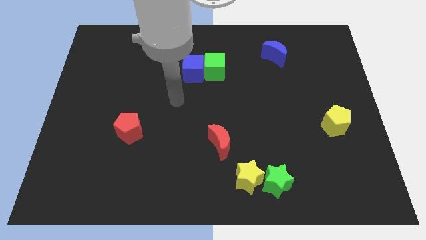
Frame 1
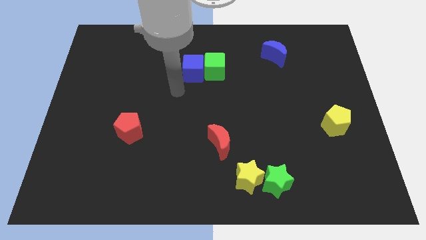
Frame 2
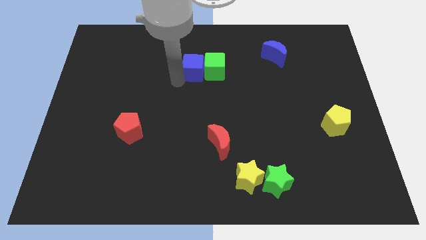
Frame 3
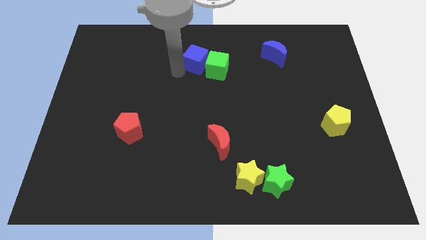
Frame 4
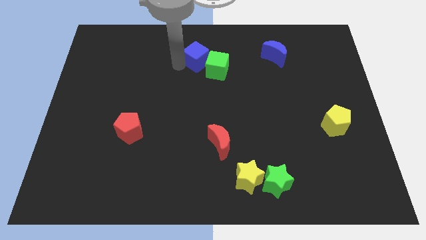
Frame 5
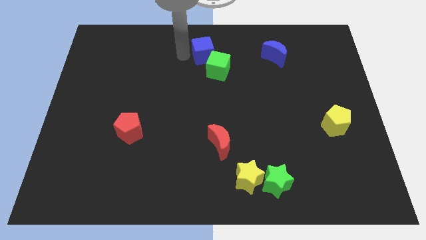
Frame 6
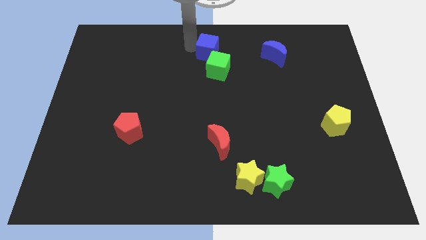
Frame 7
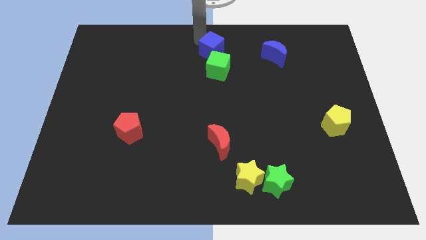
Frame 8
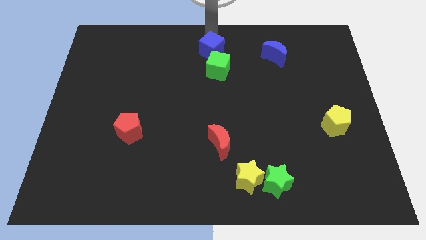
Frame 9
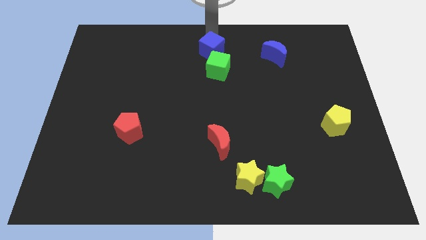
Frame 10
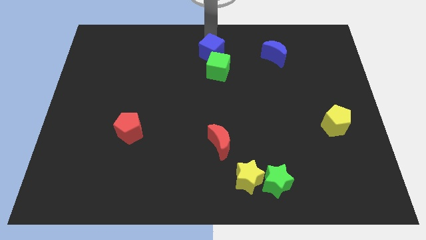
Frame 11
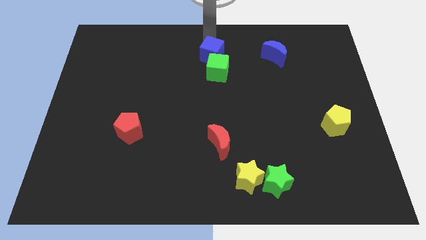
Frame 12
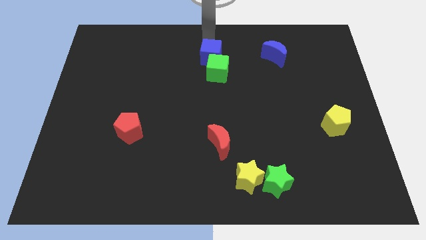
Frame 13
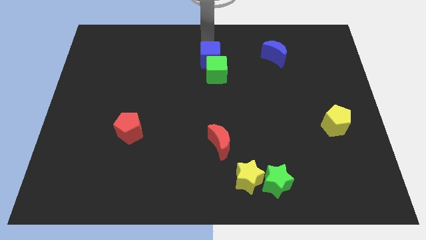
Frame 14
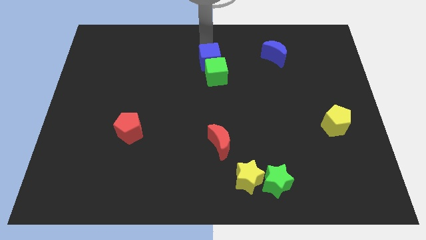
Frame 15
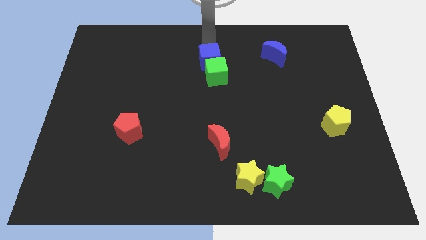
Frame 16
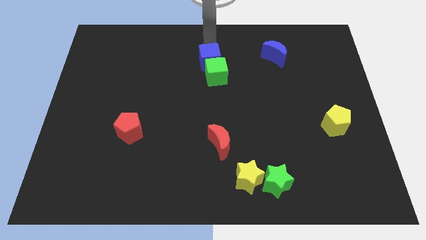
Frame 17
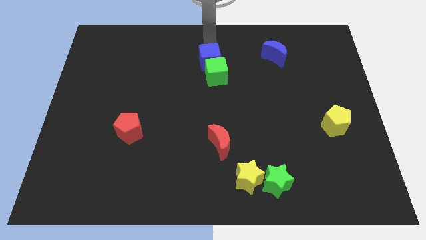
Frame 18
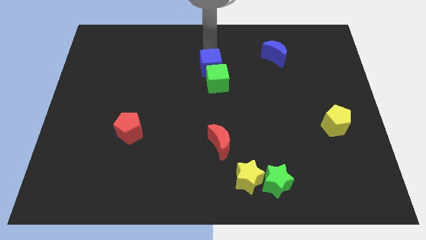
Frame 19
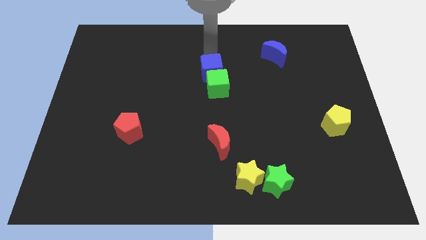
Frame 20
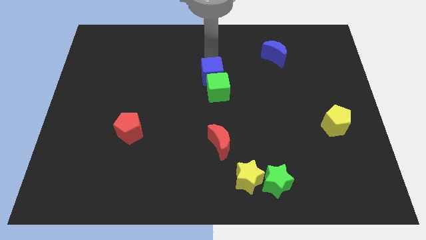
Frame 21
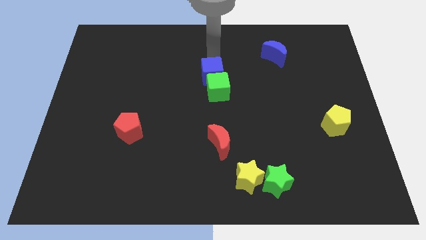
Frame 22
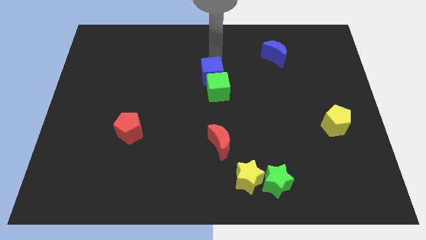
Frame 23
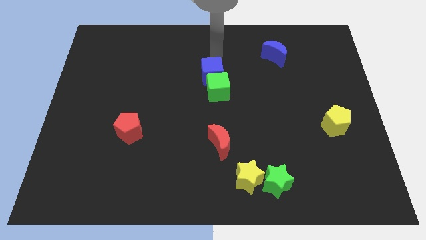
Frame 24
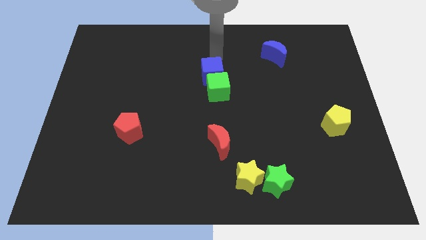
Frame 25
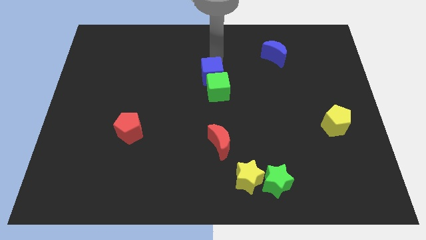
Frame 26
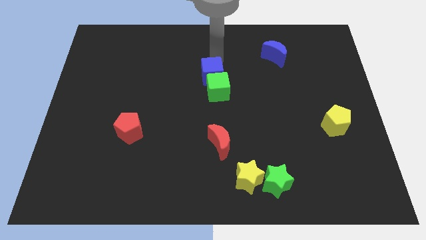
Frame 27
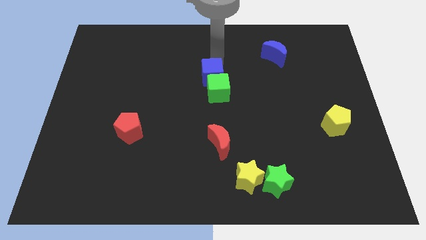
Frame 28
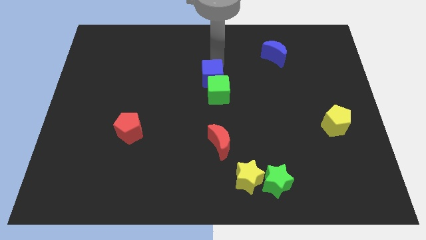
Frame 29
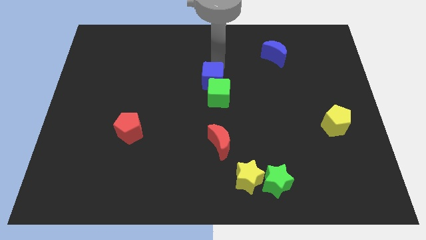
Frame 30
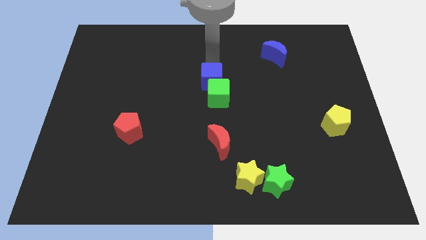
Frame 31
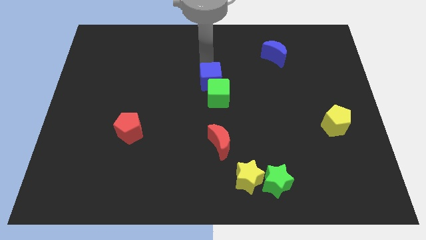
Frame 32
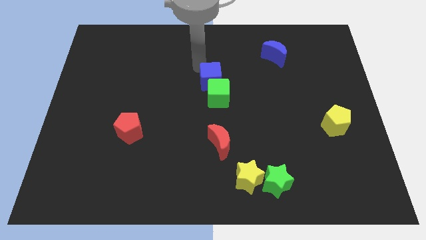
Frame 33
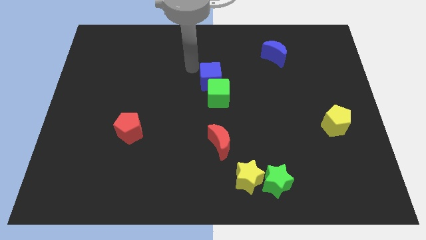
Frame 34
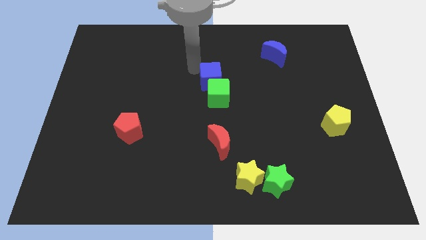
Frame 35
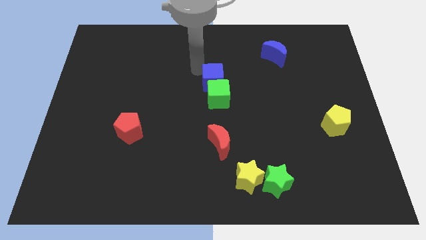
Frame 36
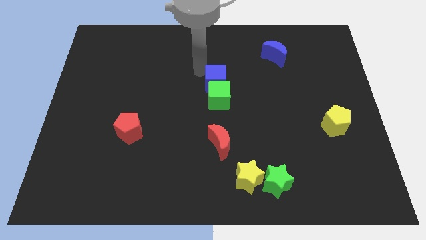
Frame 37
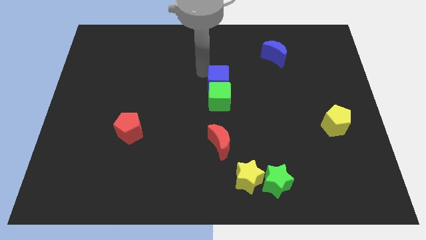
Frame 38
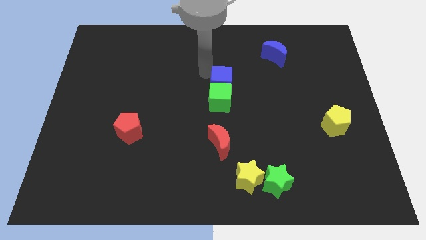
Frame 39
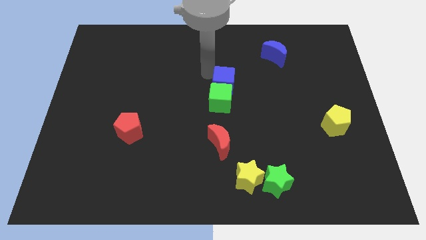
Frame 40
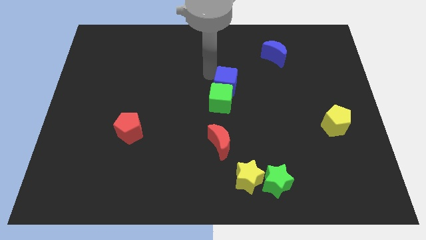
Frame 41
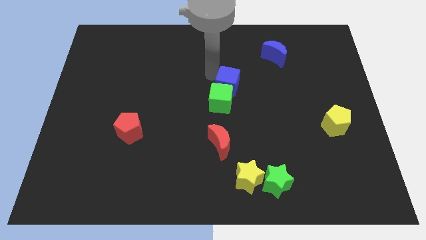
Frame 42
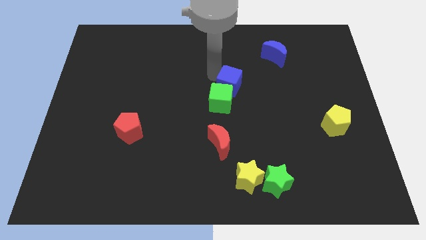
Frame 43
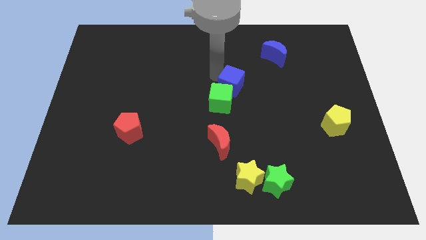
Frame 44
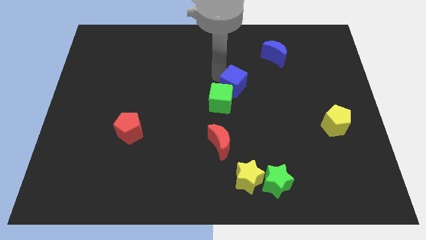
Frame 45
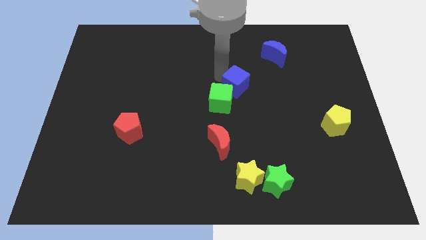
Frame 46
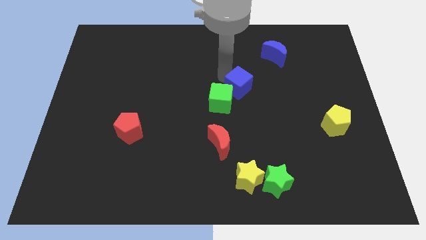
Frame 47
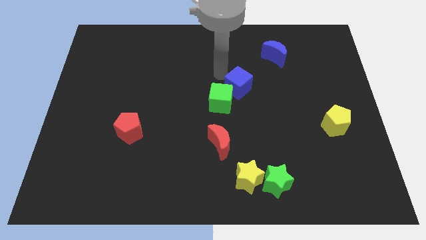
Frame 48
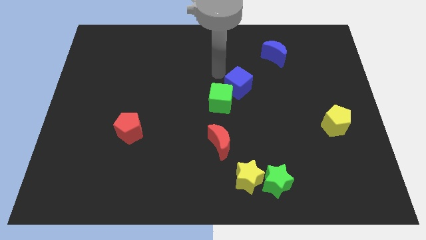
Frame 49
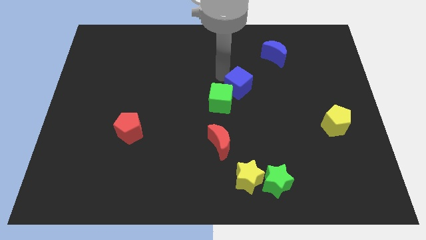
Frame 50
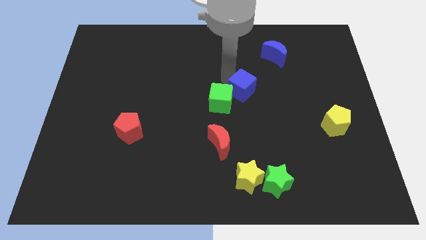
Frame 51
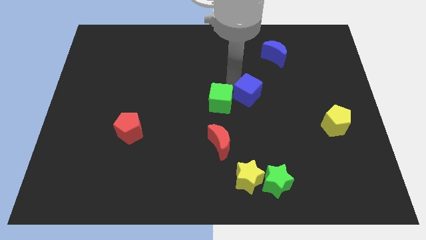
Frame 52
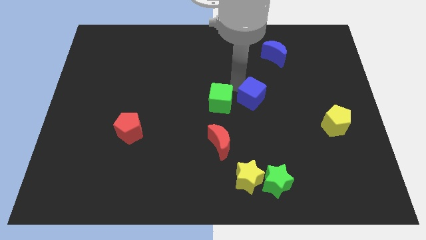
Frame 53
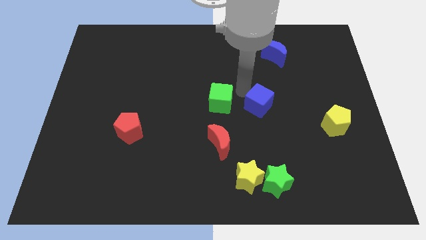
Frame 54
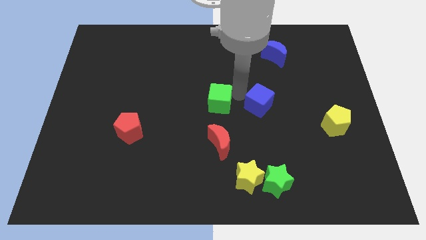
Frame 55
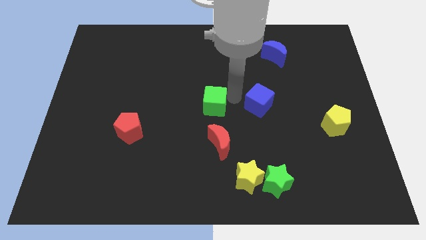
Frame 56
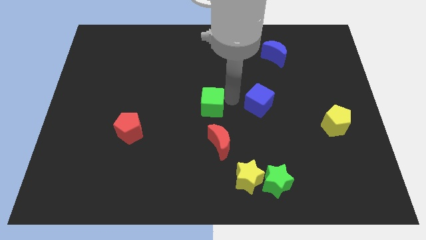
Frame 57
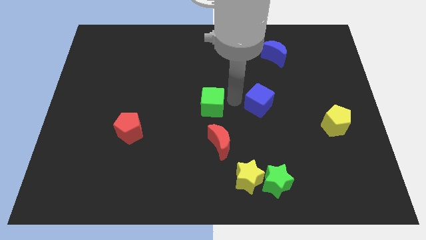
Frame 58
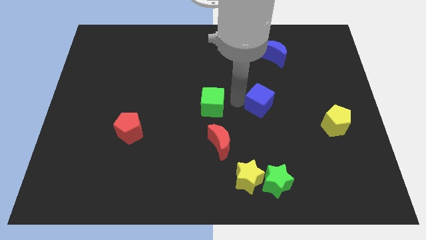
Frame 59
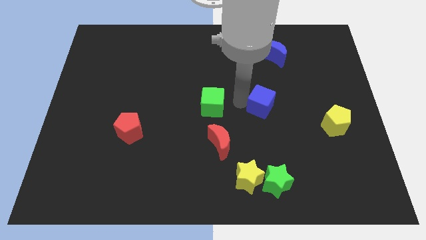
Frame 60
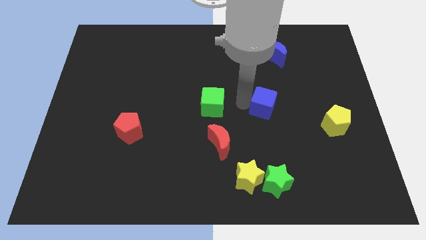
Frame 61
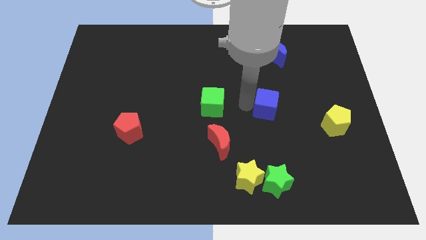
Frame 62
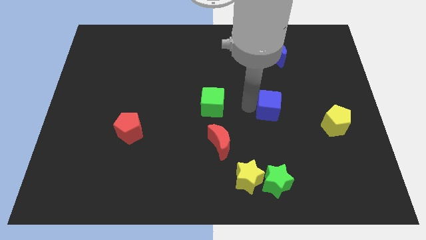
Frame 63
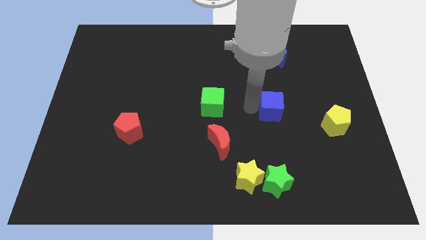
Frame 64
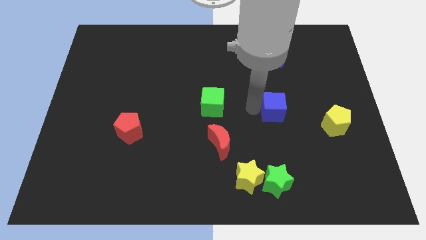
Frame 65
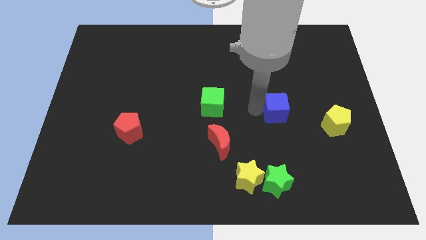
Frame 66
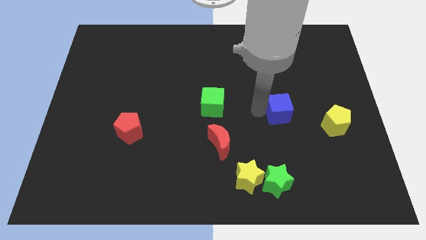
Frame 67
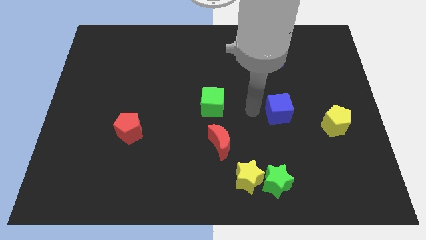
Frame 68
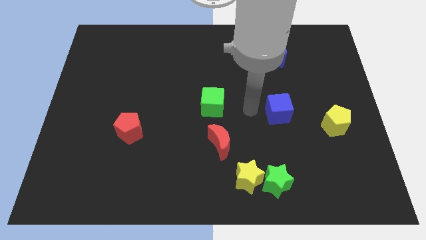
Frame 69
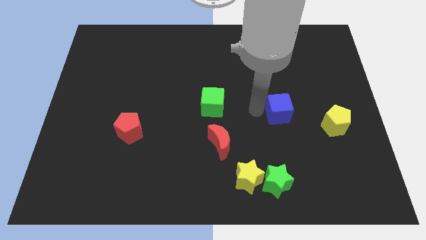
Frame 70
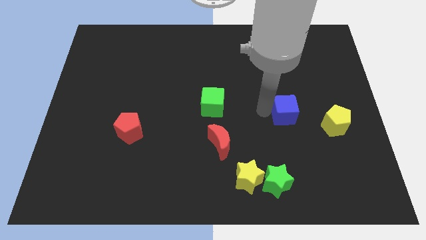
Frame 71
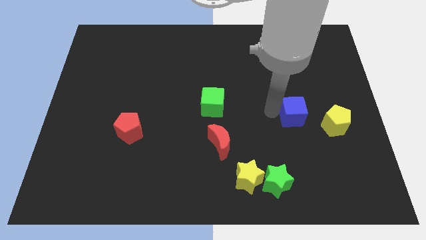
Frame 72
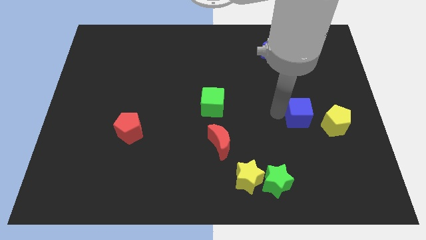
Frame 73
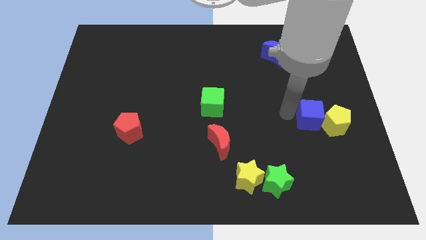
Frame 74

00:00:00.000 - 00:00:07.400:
move the blue cube close to the yellow pentagon

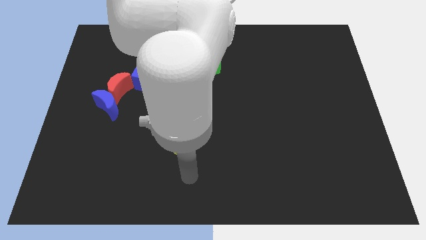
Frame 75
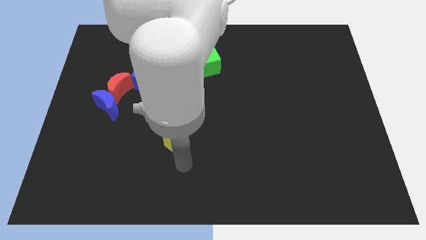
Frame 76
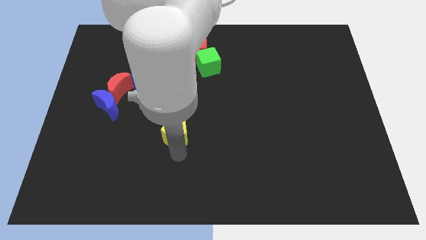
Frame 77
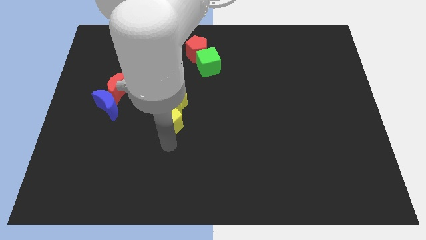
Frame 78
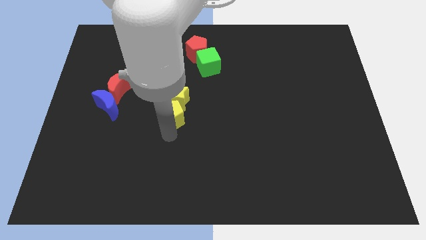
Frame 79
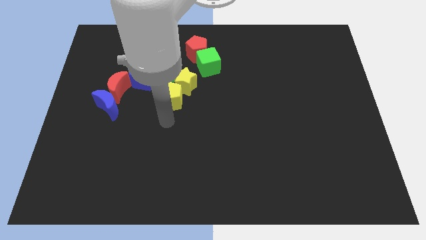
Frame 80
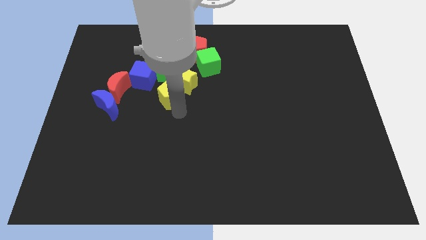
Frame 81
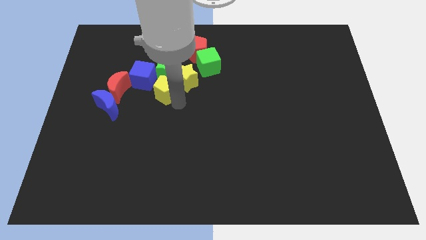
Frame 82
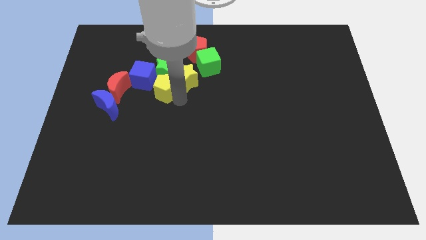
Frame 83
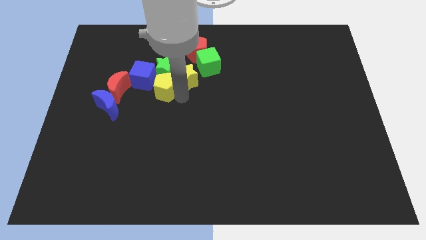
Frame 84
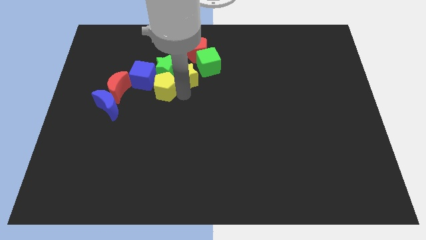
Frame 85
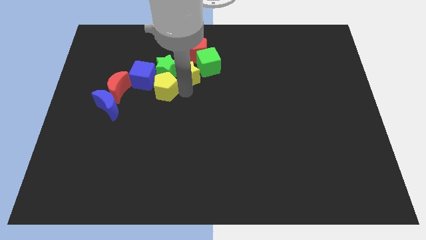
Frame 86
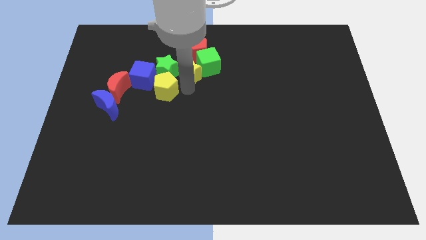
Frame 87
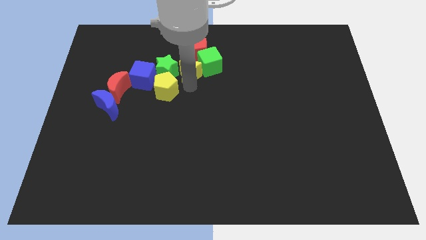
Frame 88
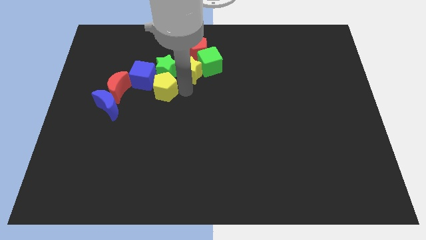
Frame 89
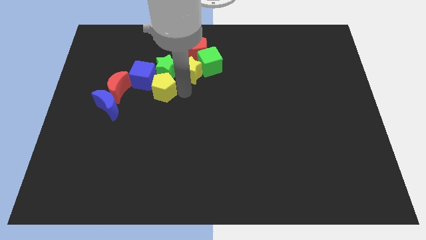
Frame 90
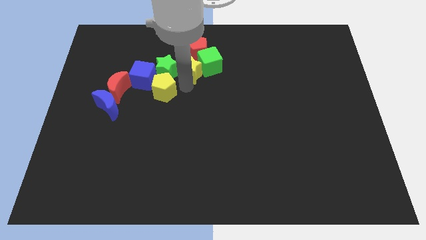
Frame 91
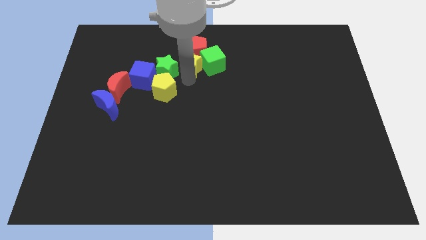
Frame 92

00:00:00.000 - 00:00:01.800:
put the yellow star towards the red pentagon
